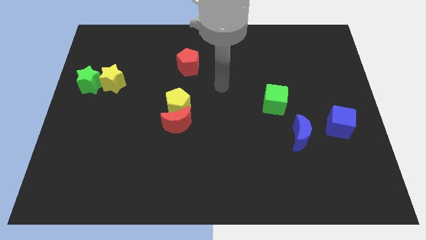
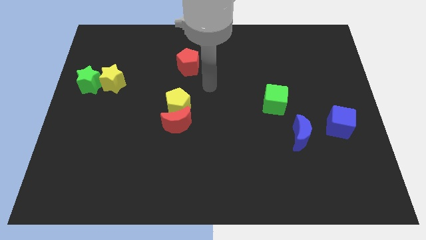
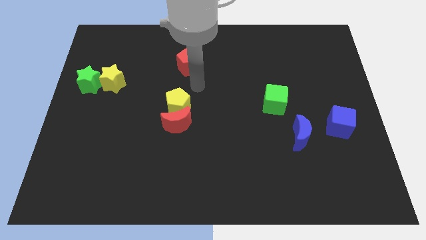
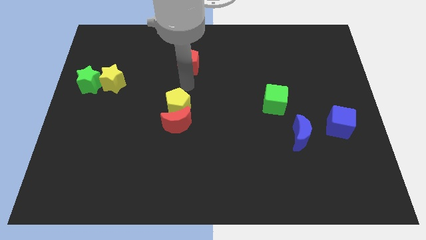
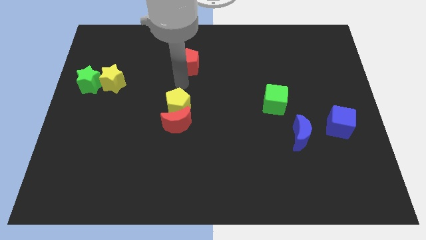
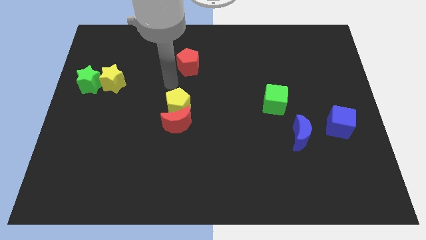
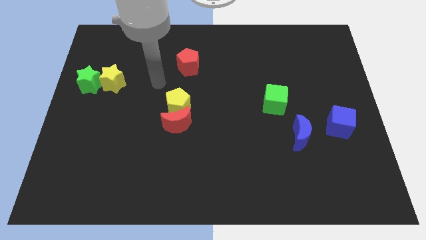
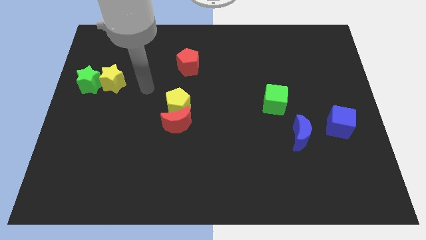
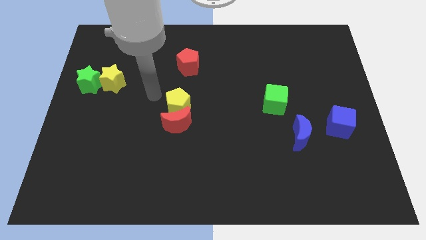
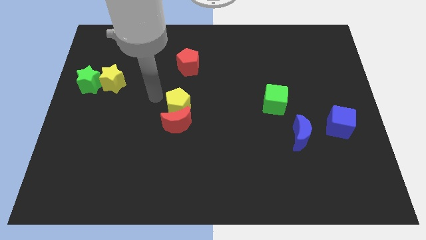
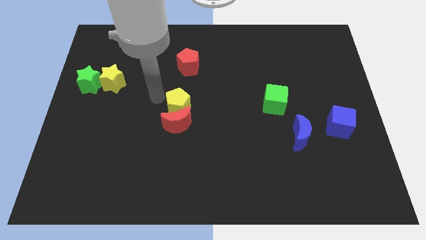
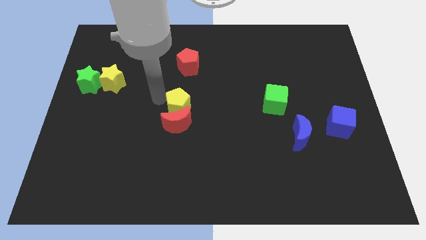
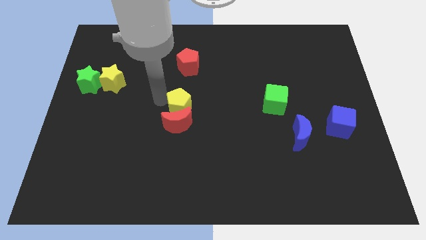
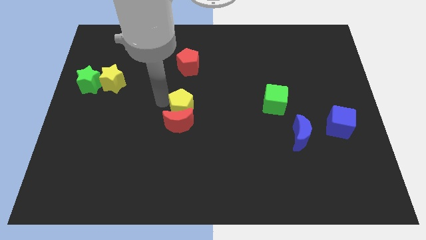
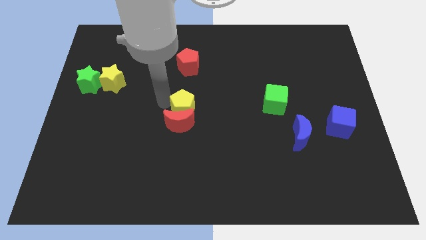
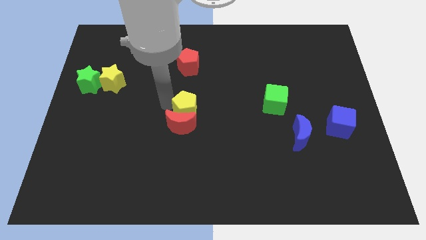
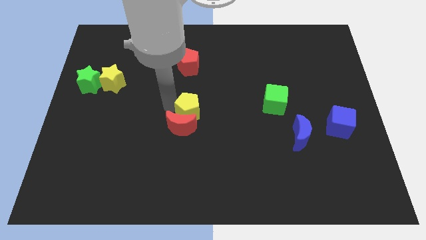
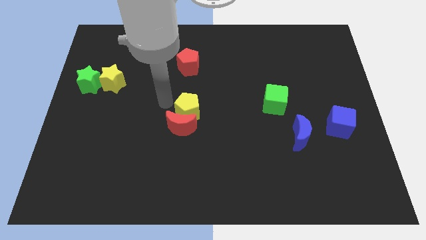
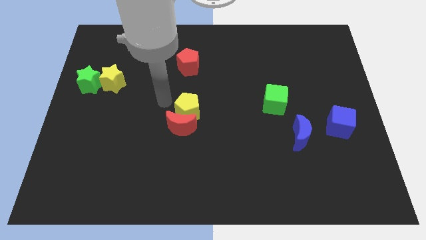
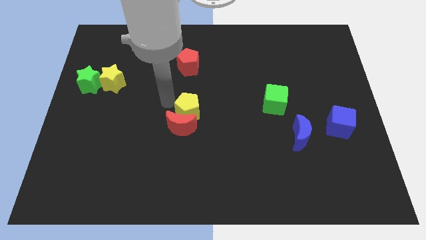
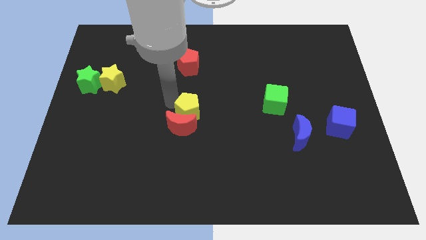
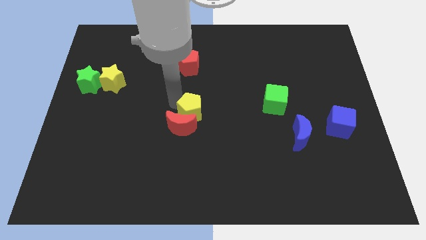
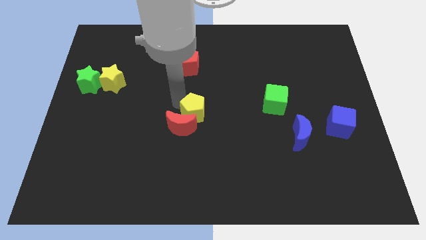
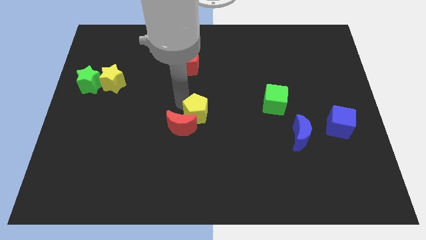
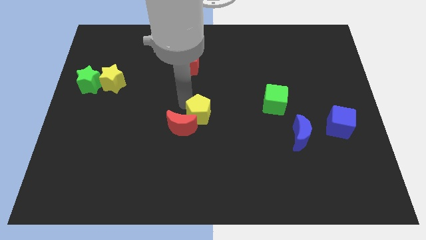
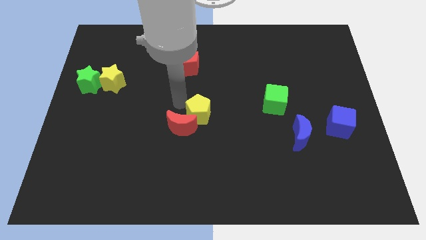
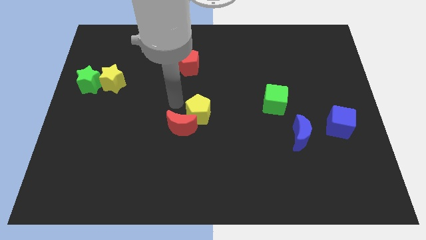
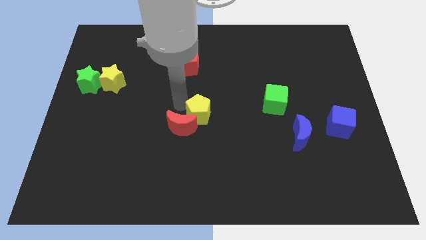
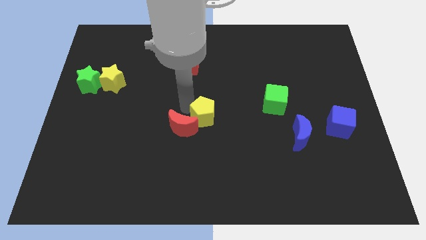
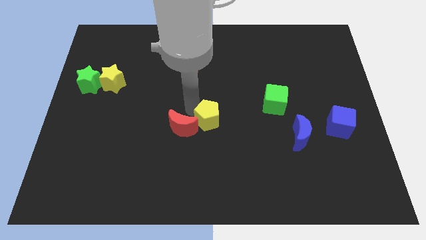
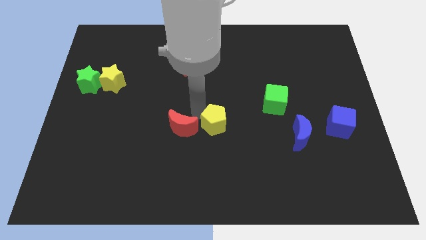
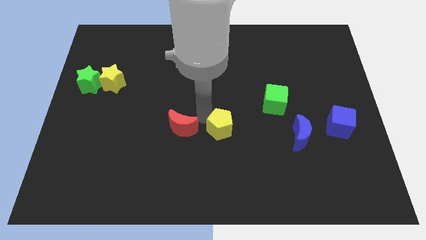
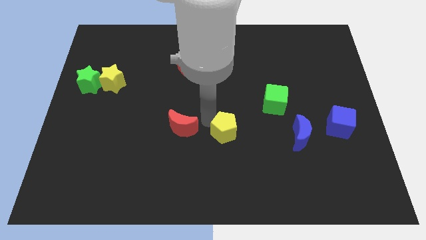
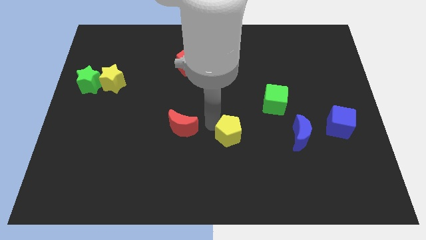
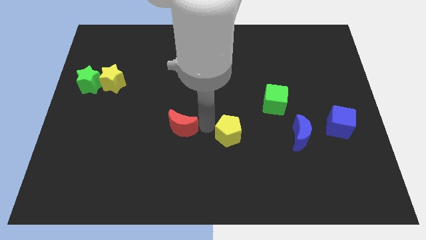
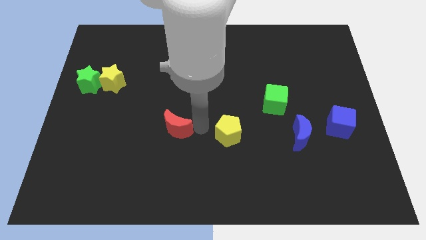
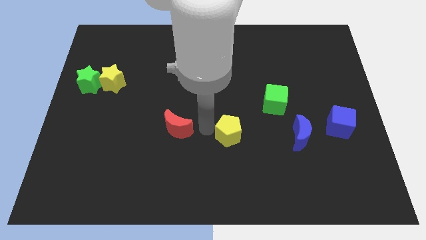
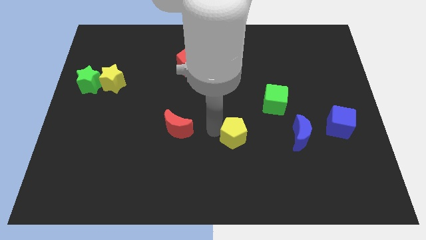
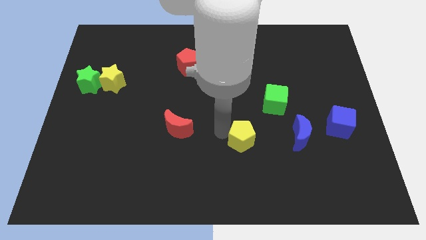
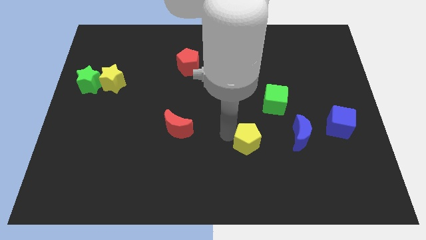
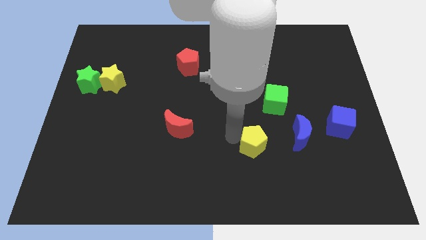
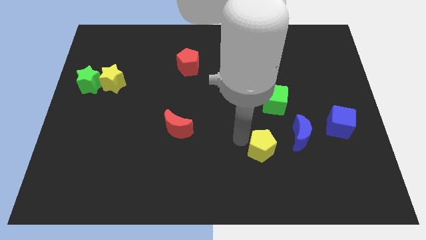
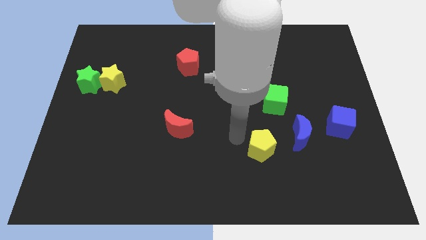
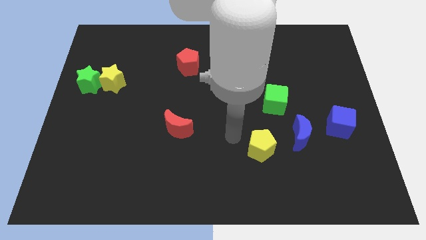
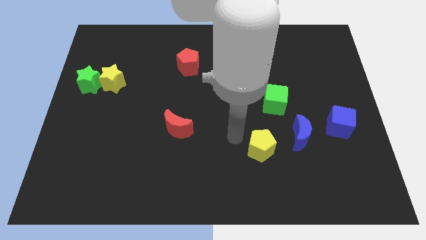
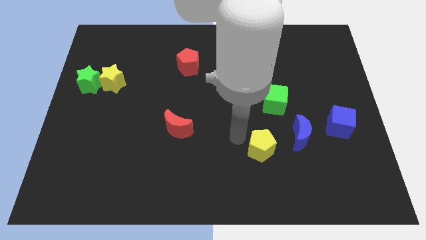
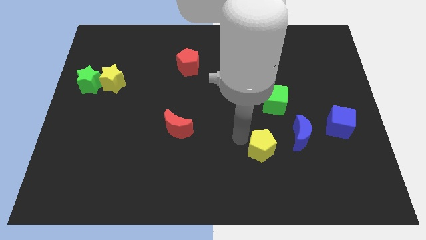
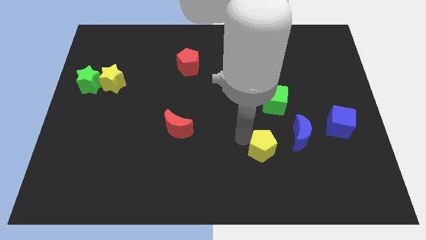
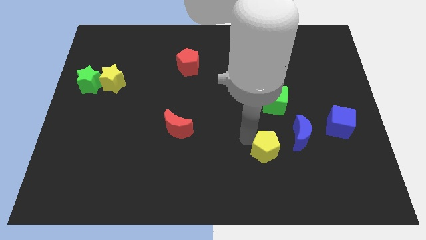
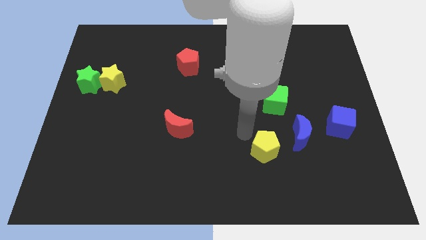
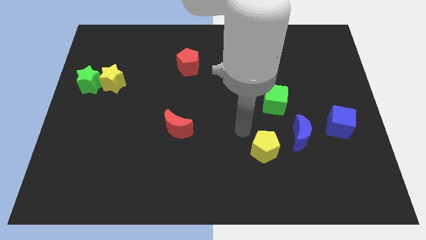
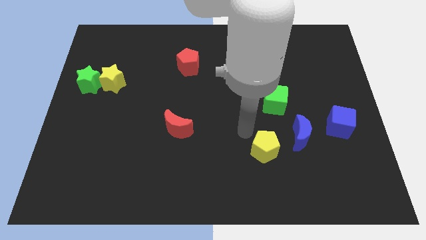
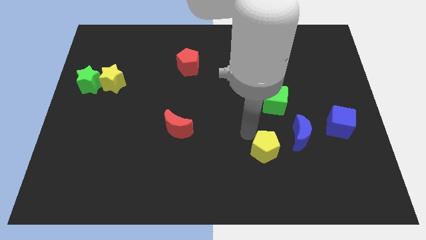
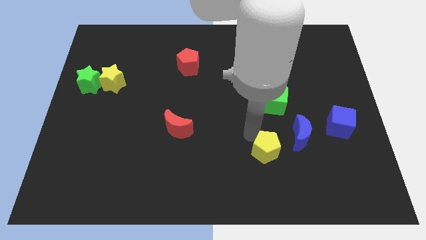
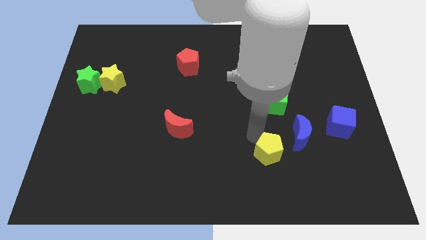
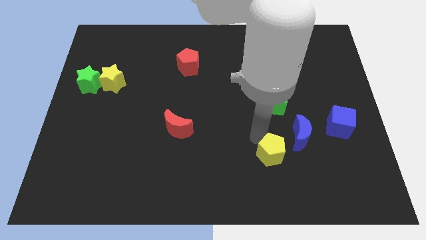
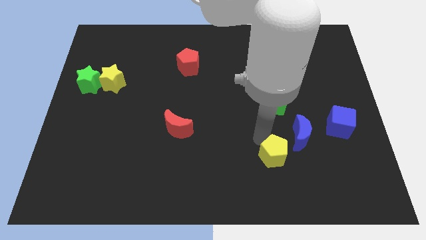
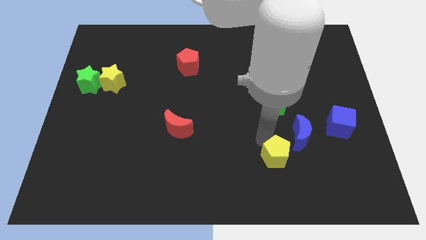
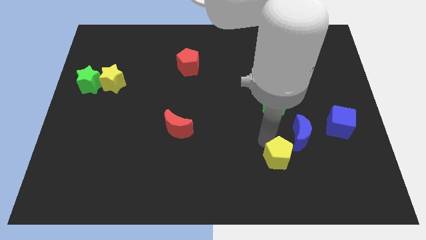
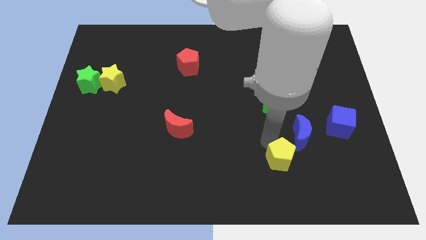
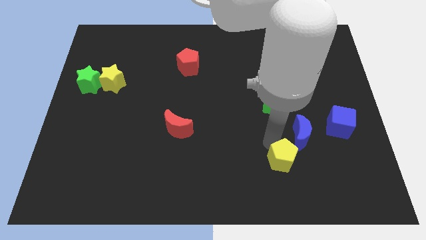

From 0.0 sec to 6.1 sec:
move the yellow pentagon to the bottom of the blue moon

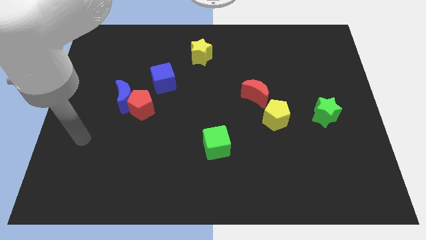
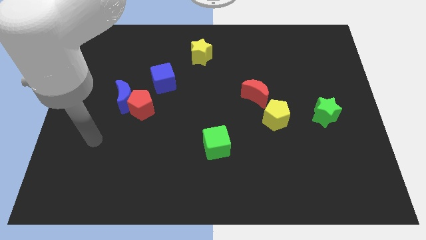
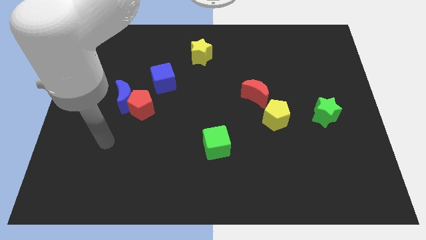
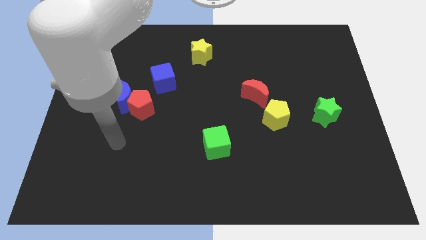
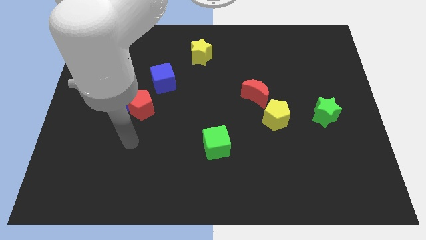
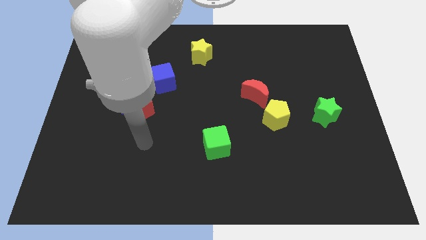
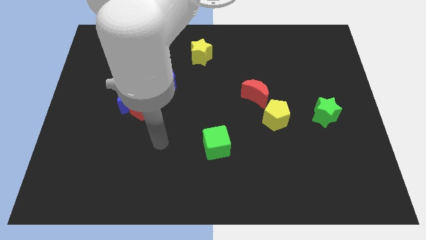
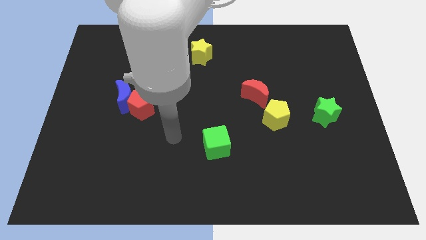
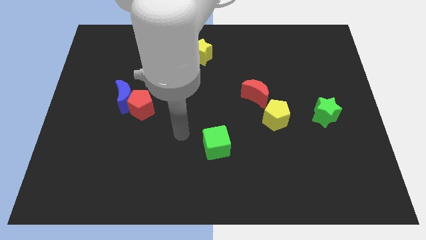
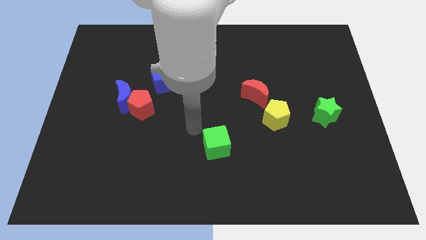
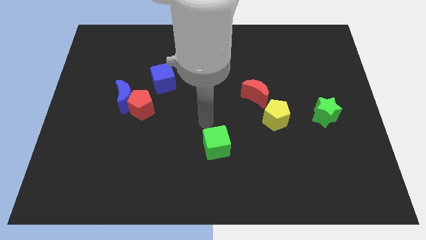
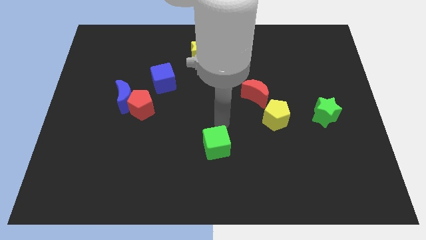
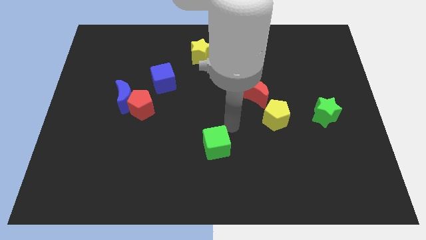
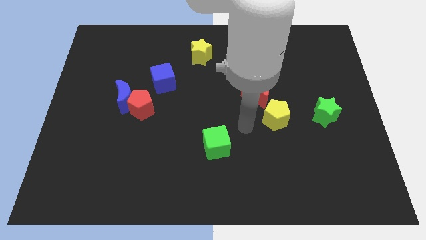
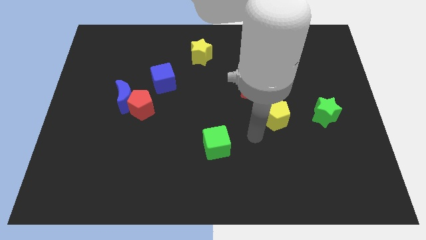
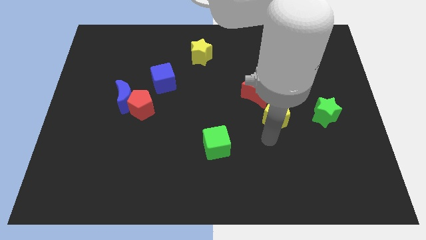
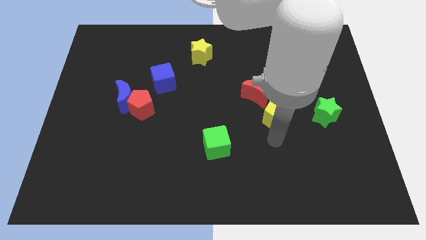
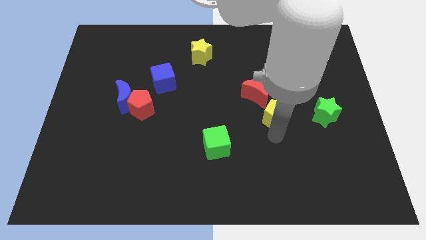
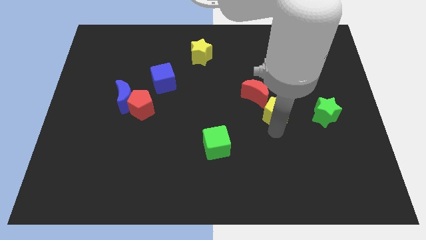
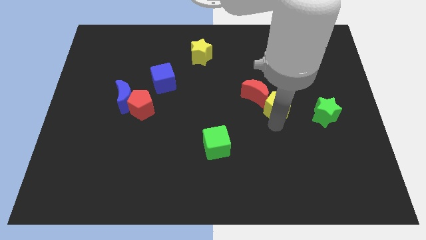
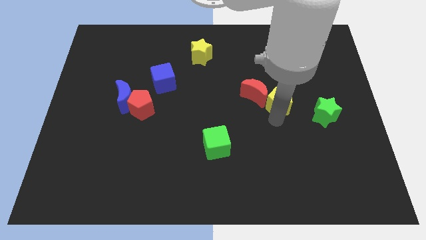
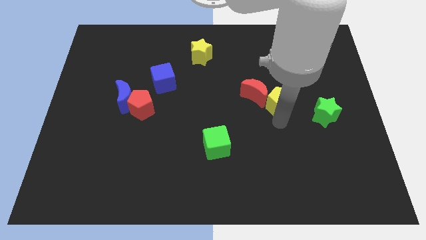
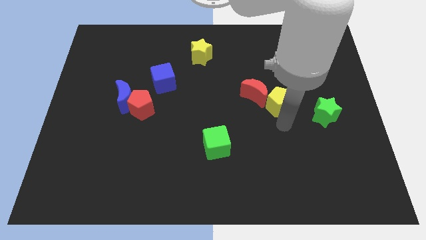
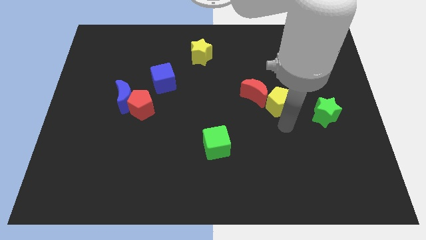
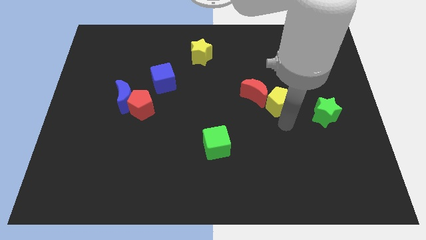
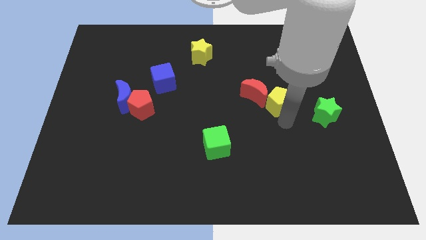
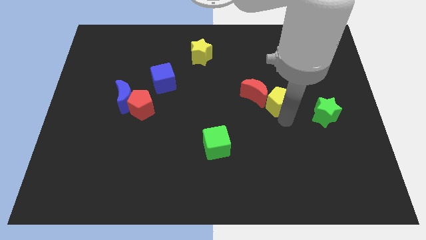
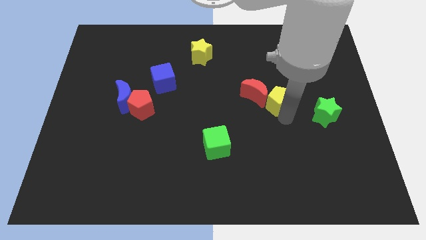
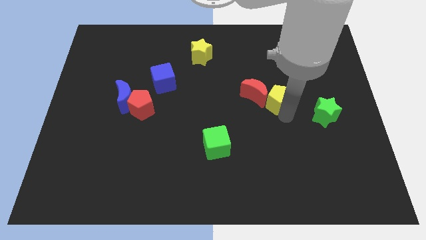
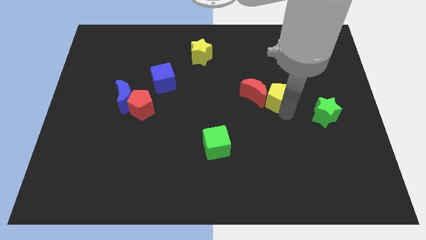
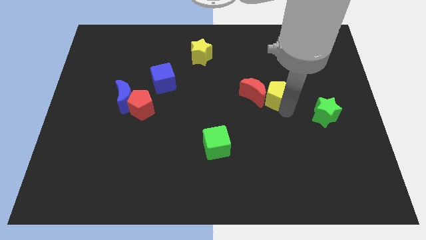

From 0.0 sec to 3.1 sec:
slide the yellow pentagon diagonally up and to the right of the red moon
